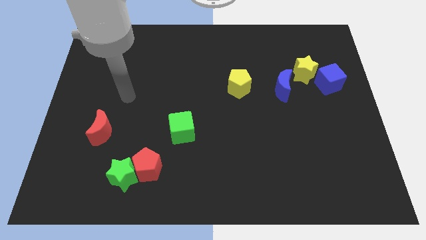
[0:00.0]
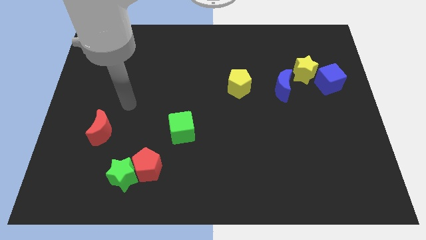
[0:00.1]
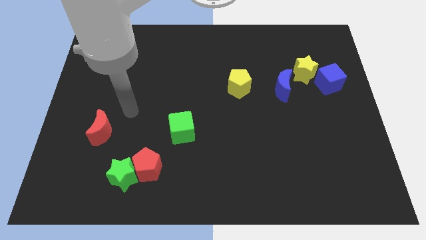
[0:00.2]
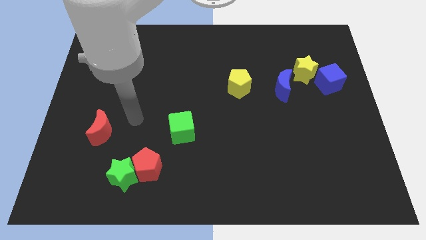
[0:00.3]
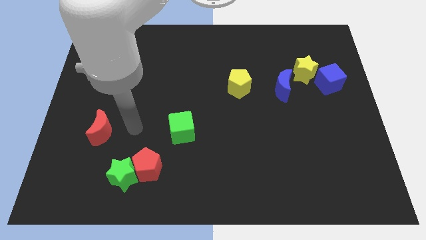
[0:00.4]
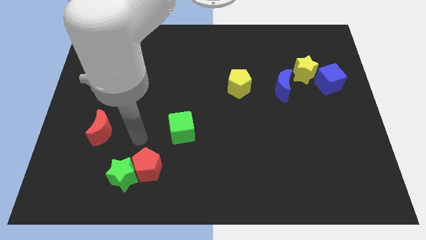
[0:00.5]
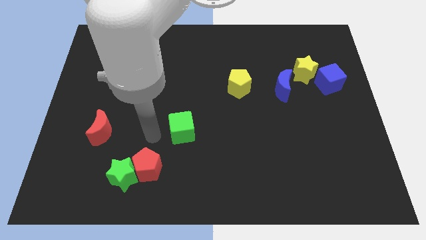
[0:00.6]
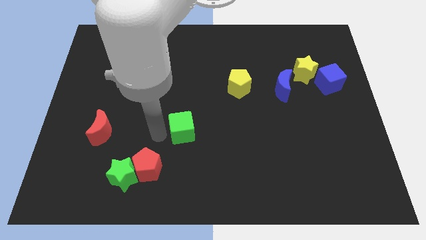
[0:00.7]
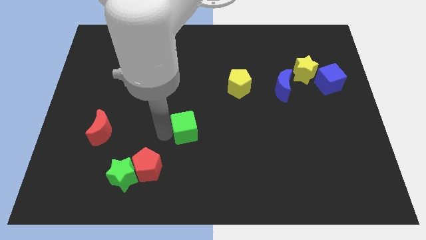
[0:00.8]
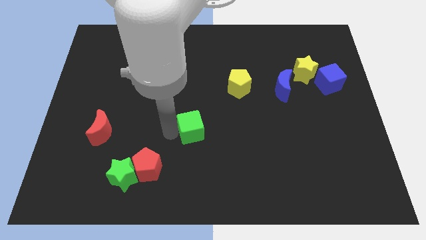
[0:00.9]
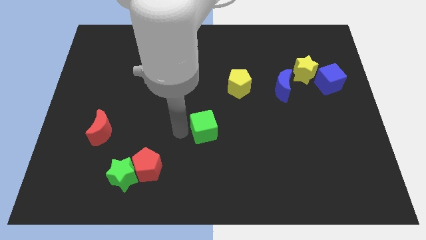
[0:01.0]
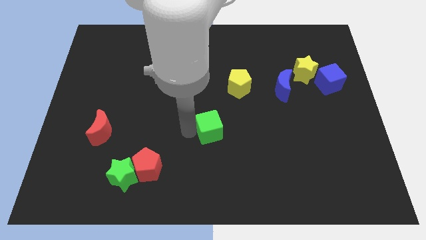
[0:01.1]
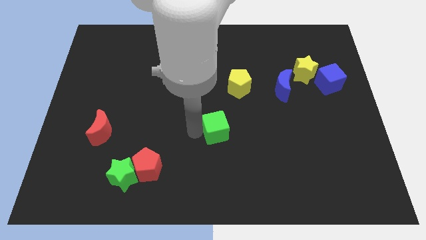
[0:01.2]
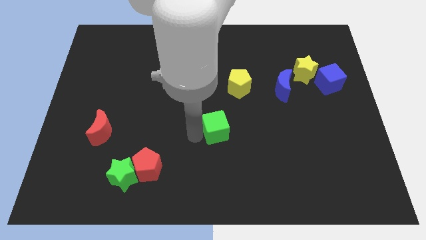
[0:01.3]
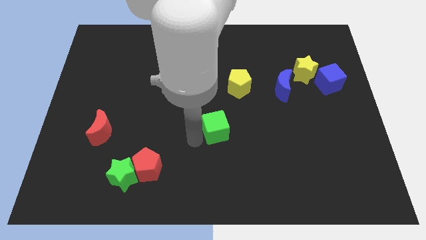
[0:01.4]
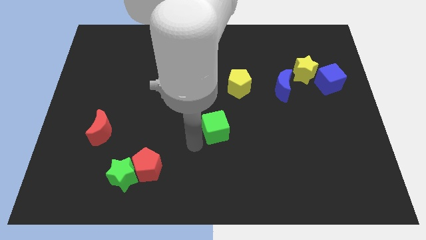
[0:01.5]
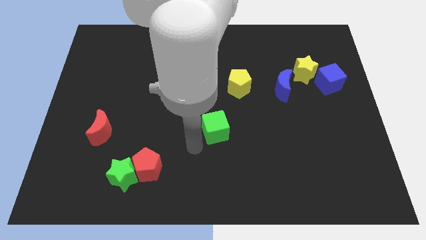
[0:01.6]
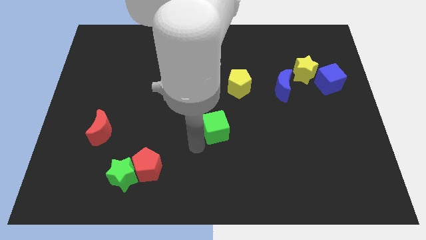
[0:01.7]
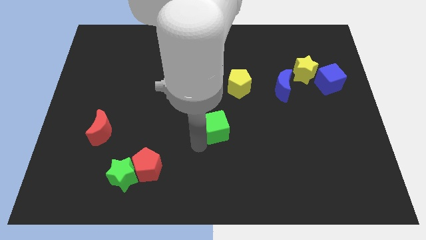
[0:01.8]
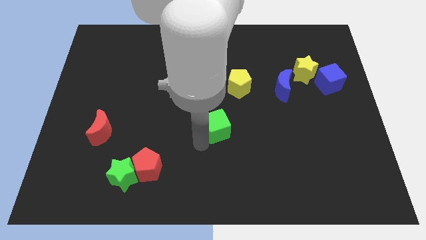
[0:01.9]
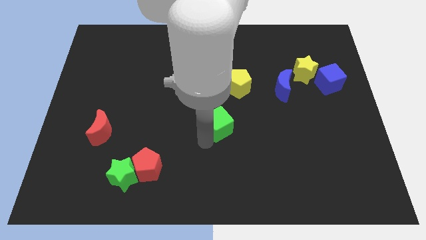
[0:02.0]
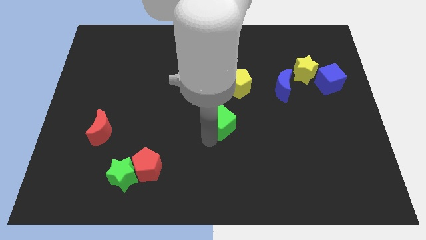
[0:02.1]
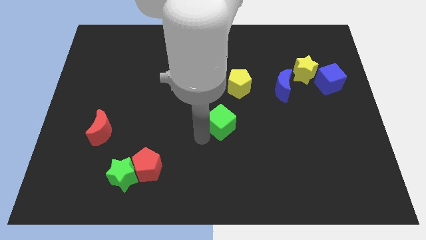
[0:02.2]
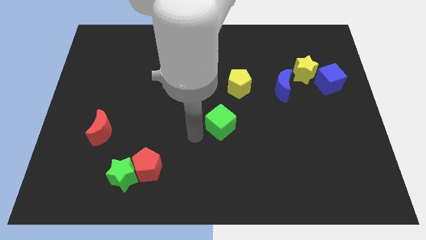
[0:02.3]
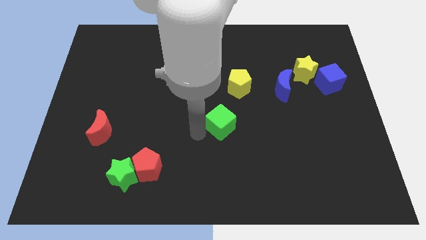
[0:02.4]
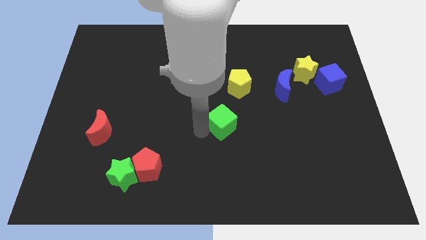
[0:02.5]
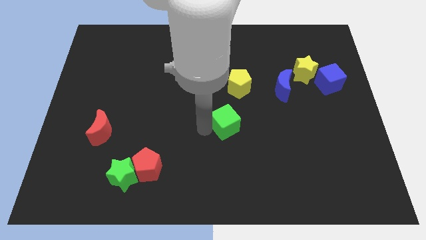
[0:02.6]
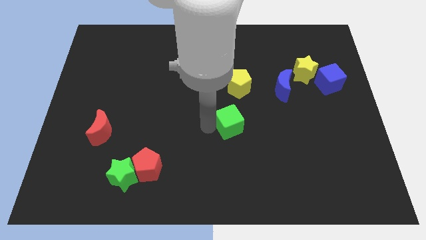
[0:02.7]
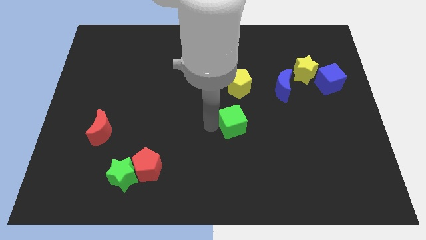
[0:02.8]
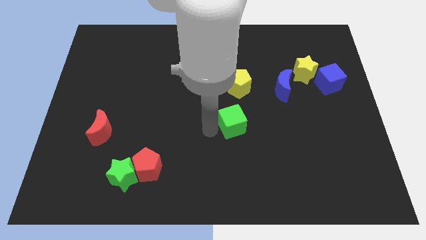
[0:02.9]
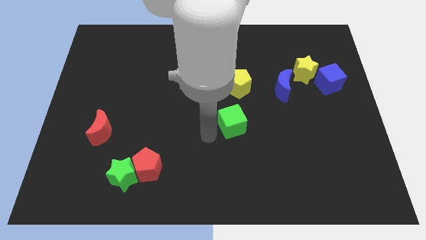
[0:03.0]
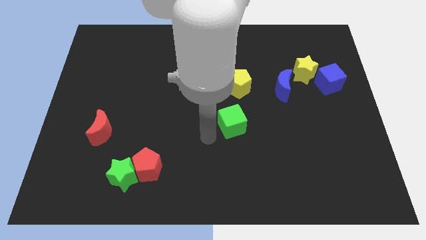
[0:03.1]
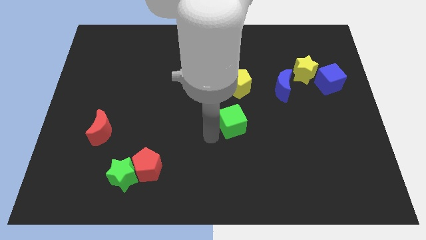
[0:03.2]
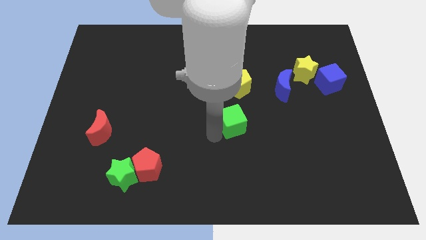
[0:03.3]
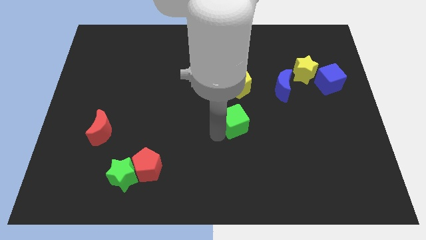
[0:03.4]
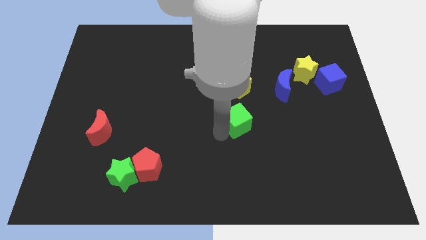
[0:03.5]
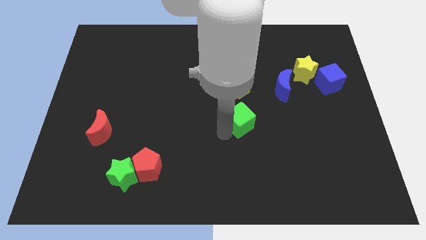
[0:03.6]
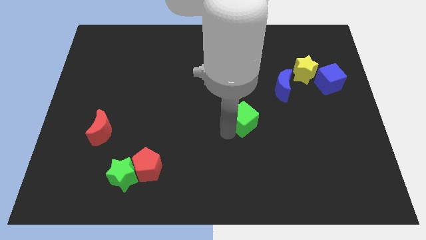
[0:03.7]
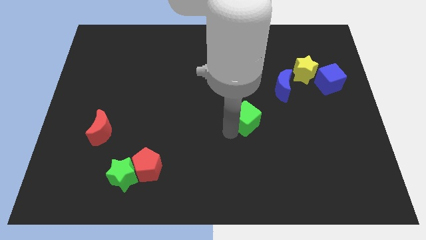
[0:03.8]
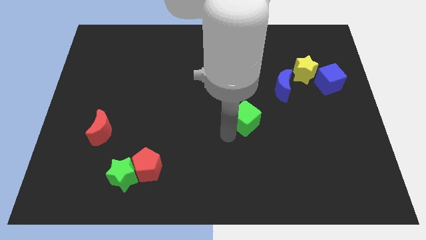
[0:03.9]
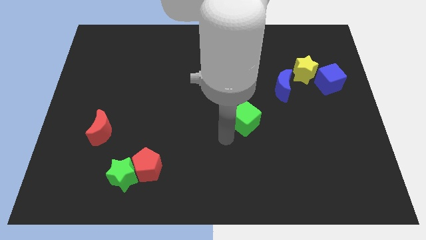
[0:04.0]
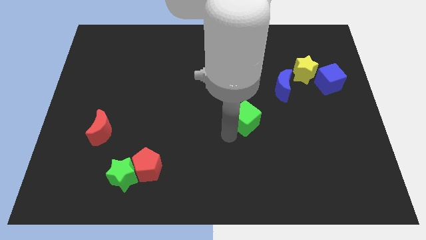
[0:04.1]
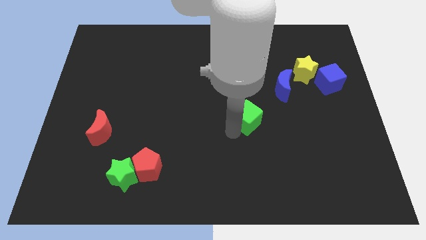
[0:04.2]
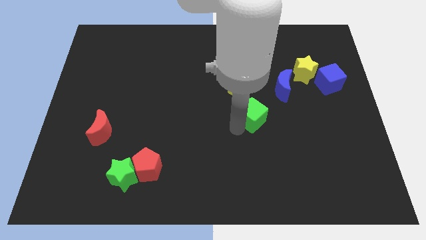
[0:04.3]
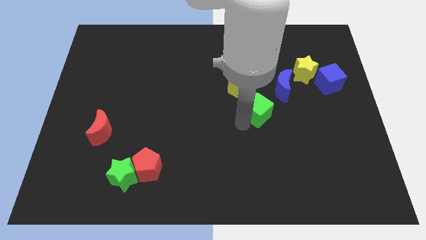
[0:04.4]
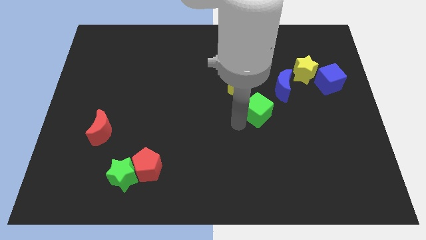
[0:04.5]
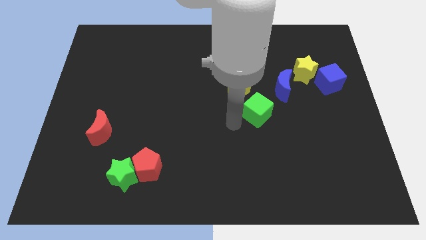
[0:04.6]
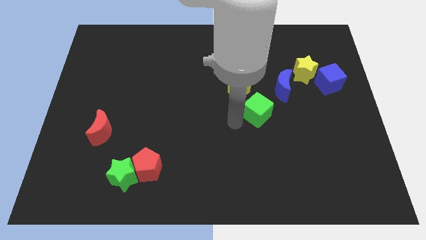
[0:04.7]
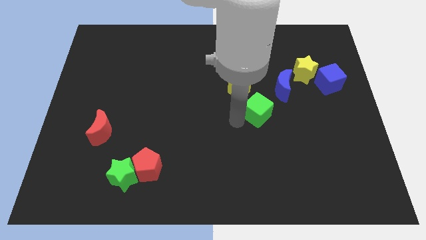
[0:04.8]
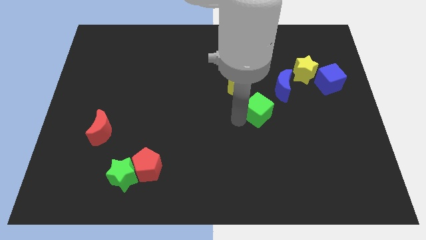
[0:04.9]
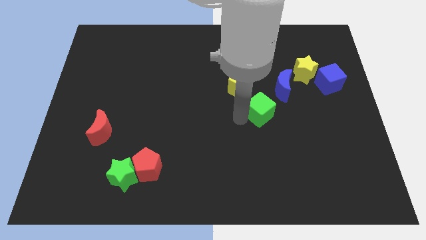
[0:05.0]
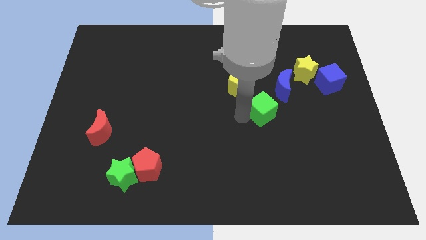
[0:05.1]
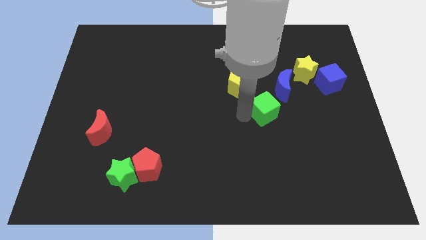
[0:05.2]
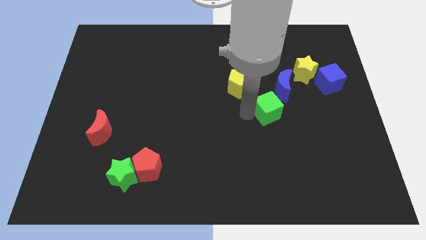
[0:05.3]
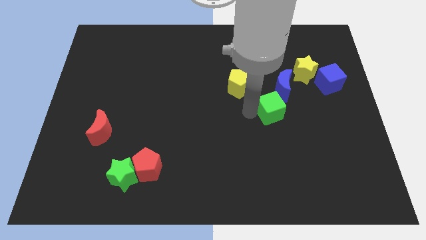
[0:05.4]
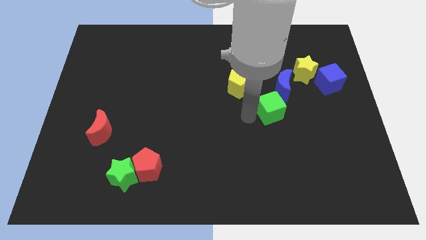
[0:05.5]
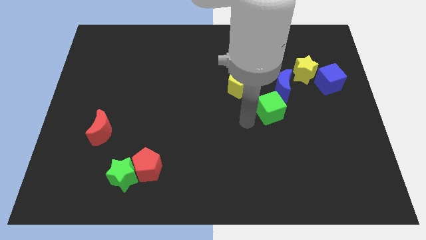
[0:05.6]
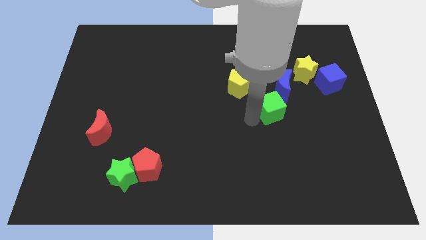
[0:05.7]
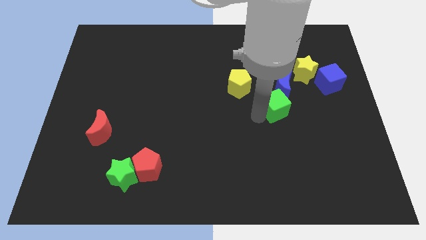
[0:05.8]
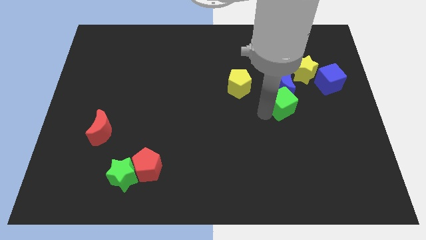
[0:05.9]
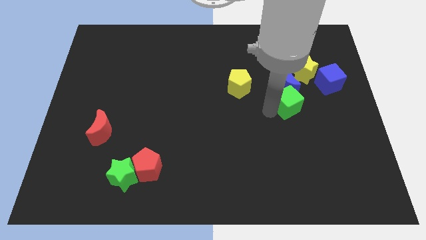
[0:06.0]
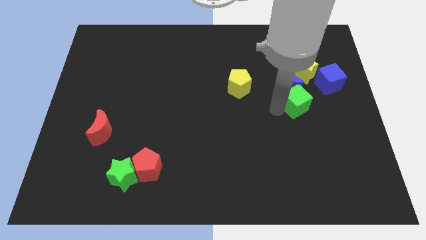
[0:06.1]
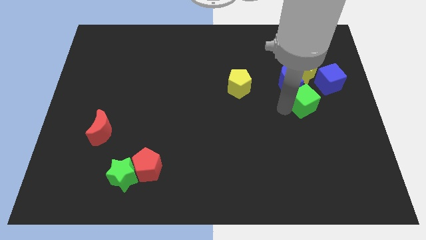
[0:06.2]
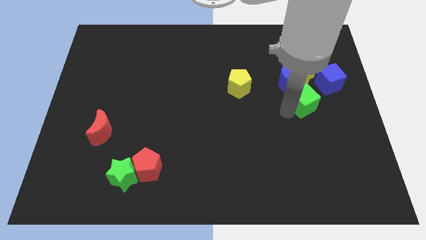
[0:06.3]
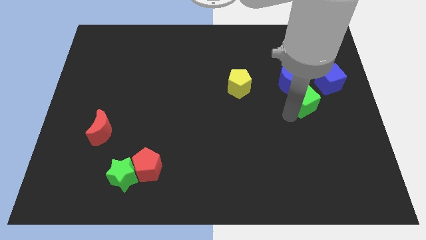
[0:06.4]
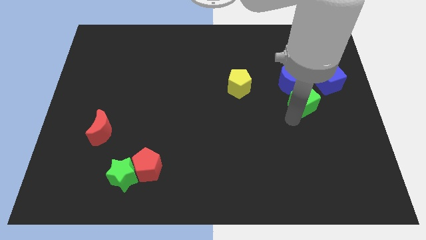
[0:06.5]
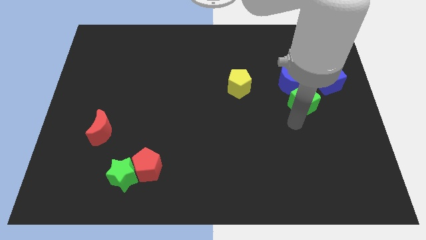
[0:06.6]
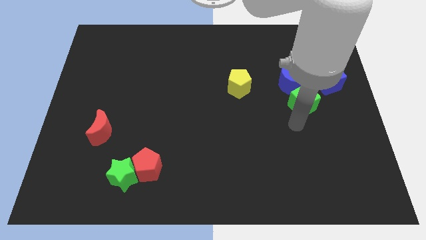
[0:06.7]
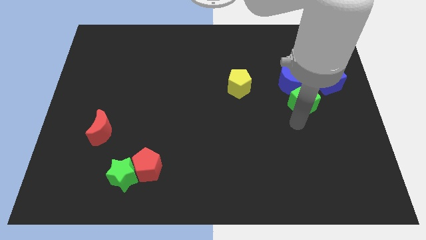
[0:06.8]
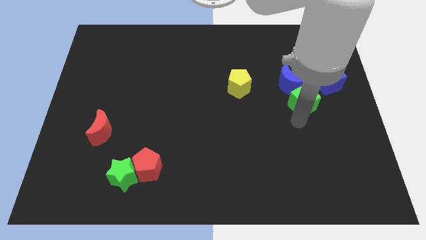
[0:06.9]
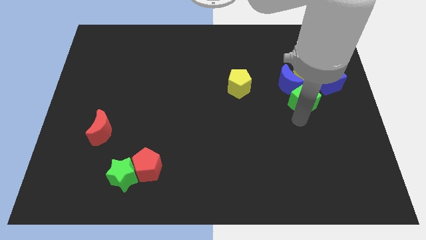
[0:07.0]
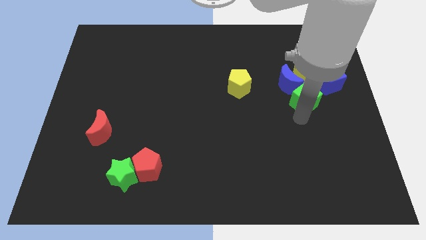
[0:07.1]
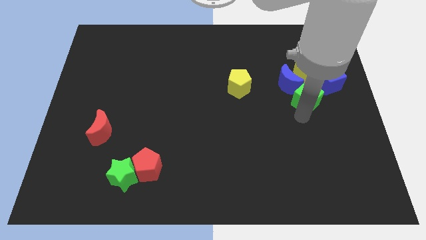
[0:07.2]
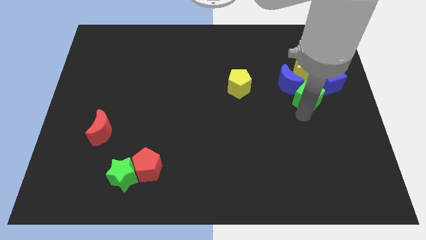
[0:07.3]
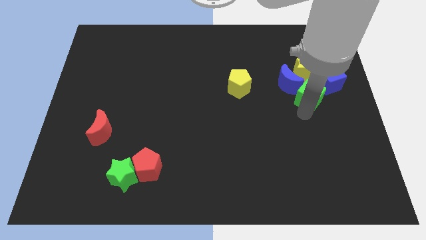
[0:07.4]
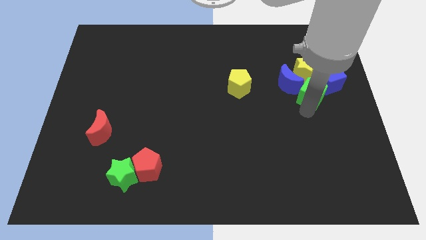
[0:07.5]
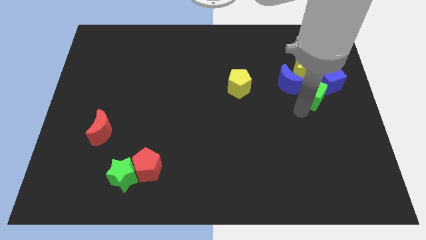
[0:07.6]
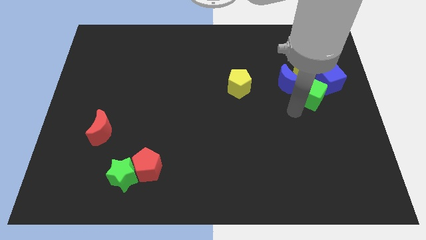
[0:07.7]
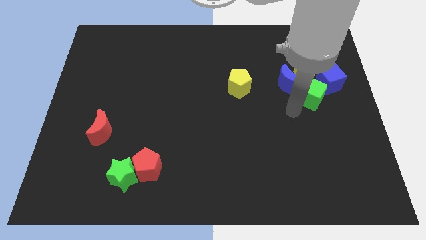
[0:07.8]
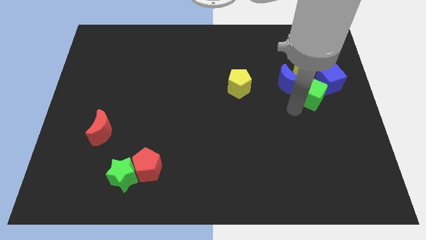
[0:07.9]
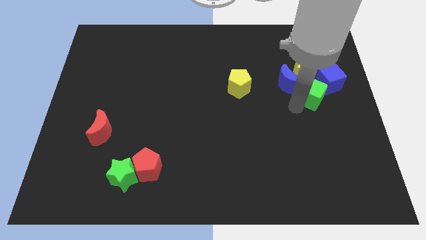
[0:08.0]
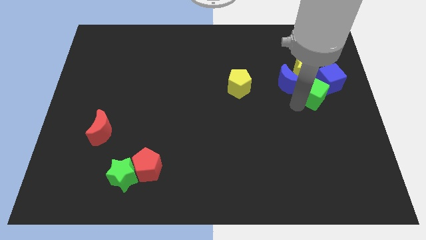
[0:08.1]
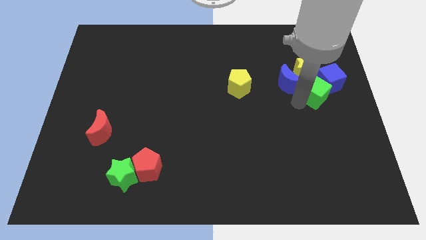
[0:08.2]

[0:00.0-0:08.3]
slide the green cube next to the blue cube
